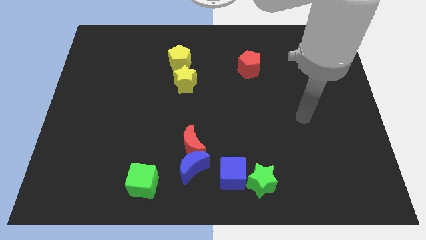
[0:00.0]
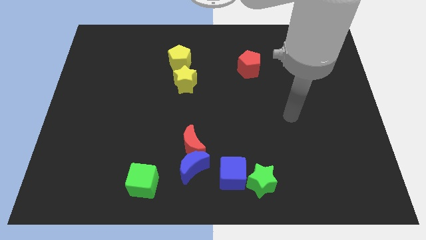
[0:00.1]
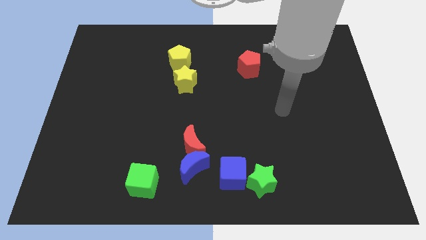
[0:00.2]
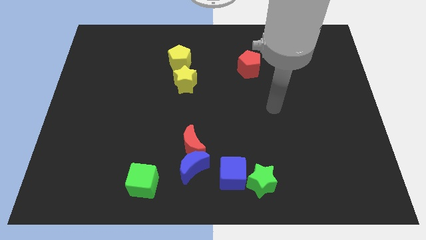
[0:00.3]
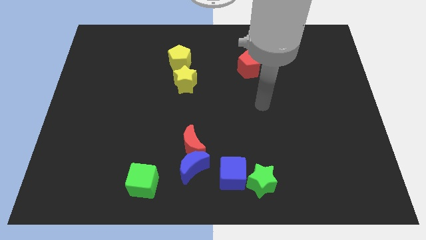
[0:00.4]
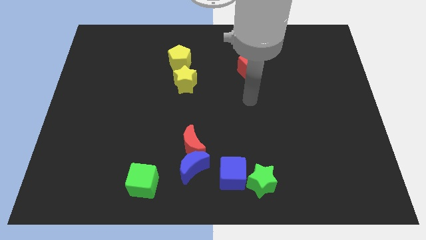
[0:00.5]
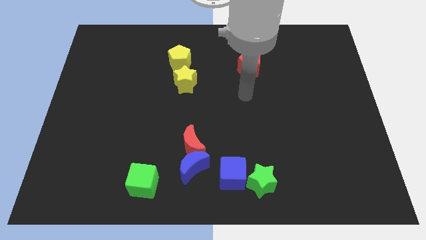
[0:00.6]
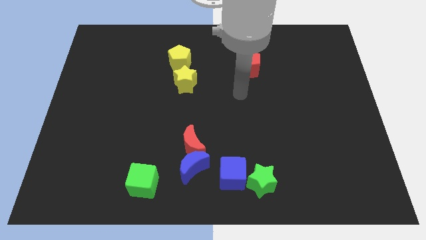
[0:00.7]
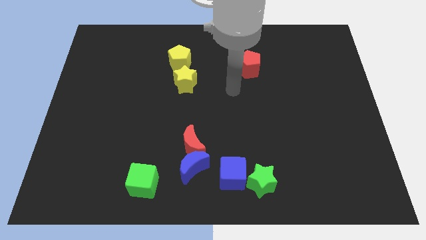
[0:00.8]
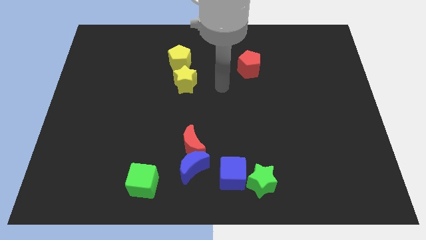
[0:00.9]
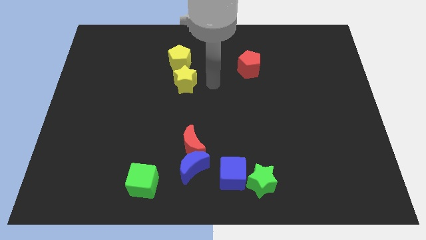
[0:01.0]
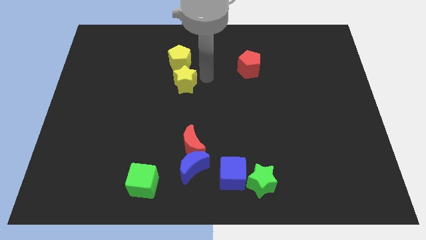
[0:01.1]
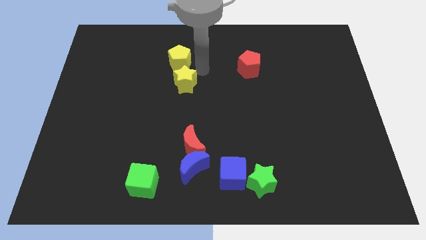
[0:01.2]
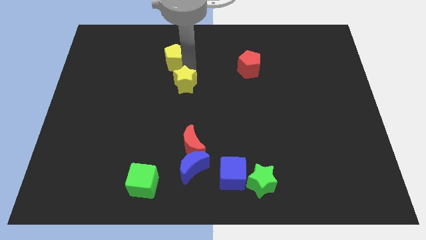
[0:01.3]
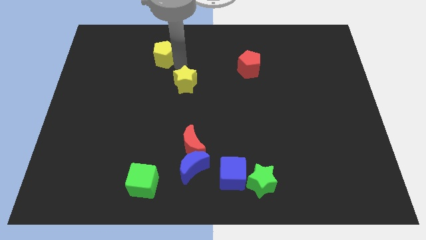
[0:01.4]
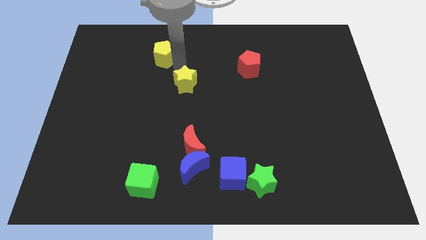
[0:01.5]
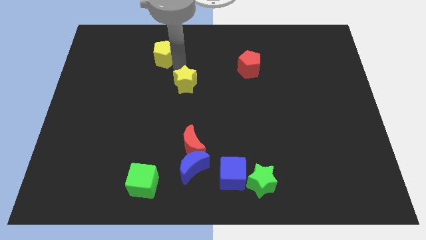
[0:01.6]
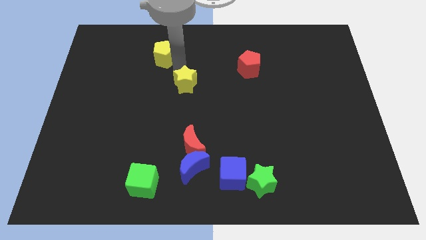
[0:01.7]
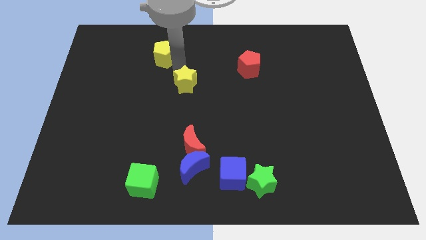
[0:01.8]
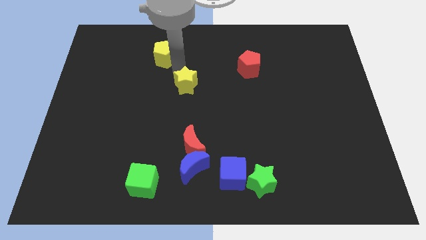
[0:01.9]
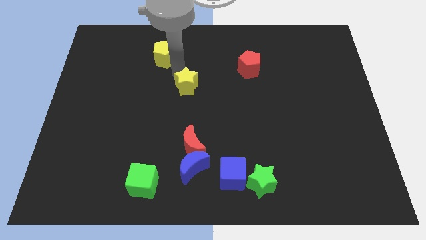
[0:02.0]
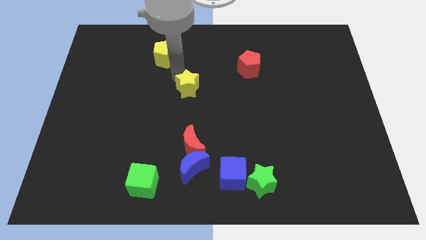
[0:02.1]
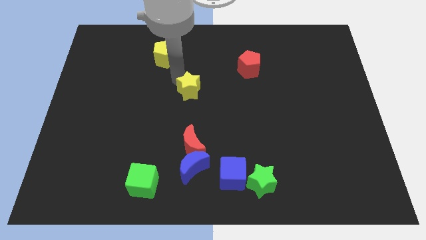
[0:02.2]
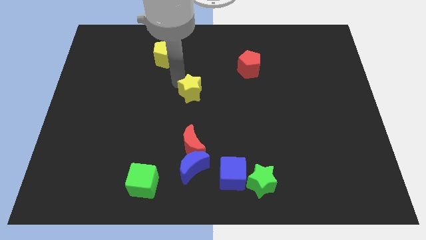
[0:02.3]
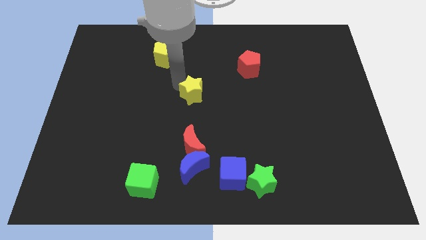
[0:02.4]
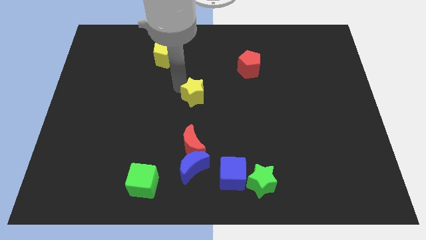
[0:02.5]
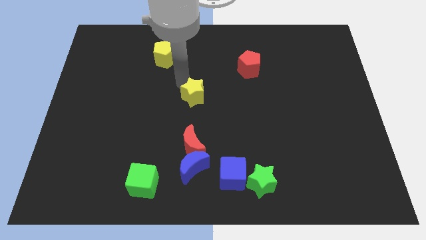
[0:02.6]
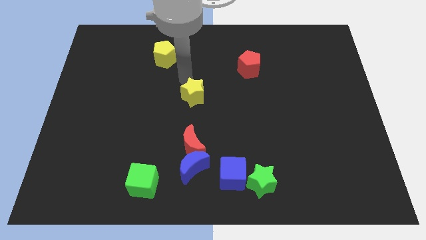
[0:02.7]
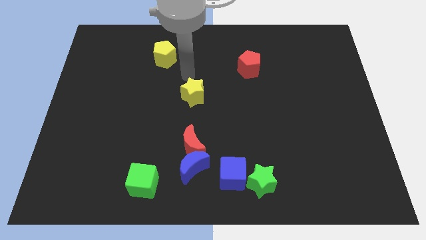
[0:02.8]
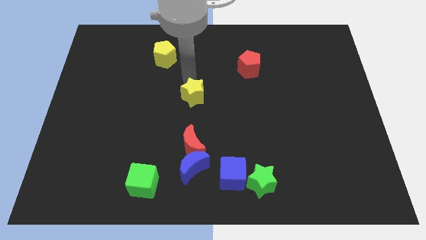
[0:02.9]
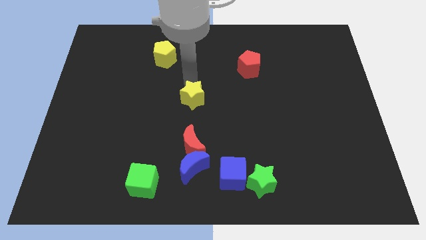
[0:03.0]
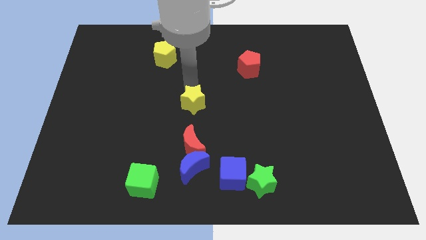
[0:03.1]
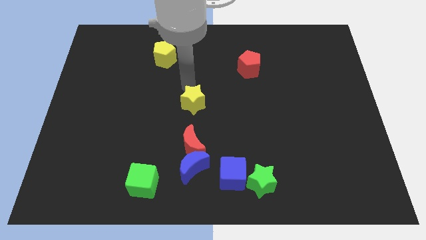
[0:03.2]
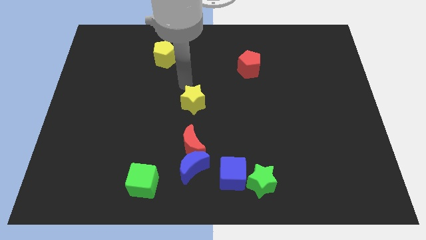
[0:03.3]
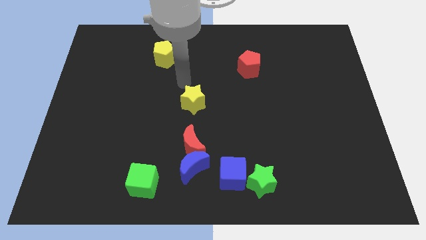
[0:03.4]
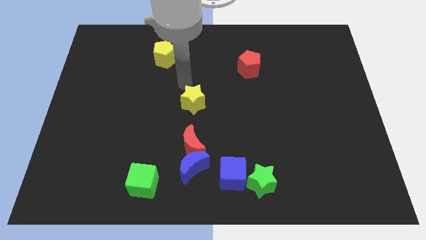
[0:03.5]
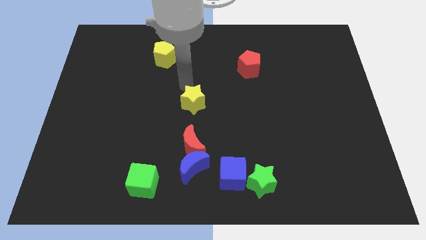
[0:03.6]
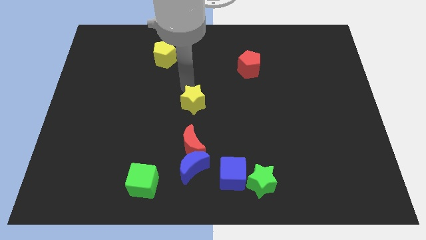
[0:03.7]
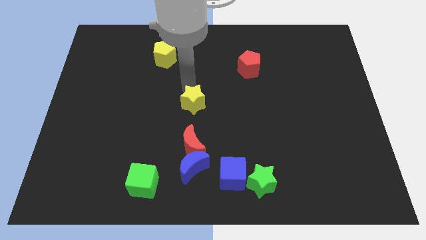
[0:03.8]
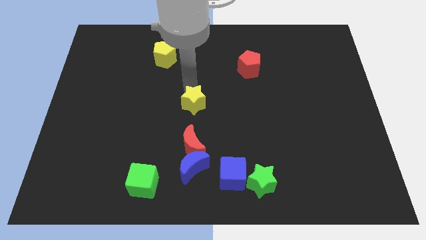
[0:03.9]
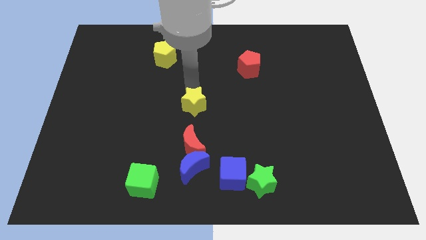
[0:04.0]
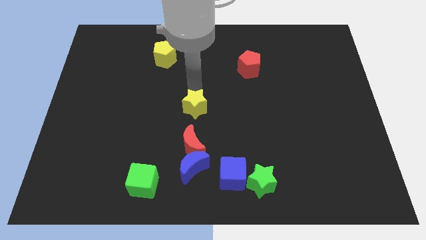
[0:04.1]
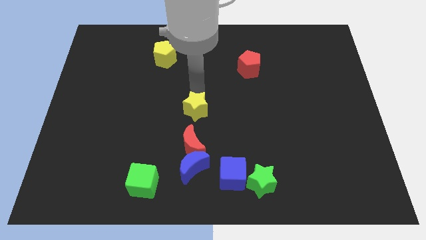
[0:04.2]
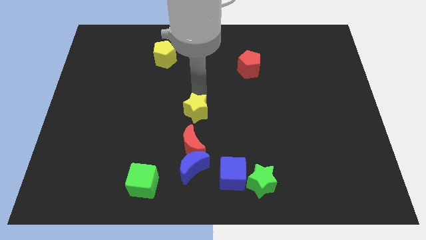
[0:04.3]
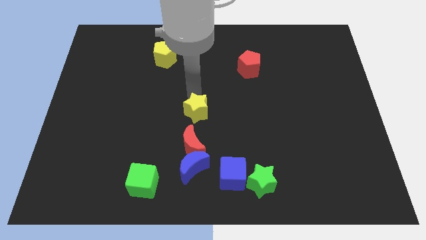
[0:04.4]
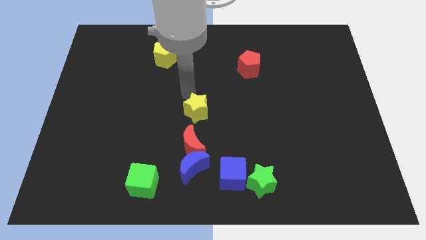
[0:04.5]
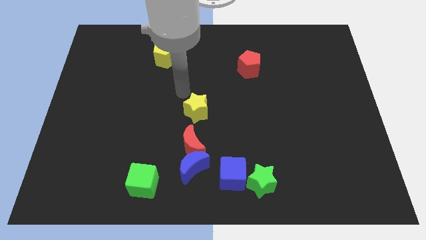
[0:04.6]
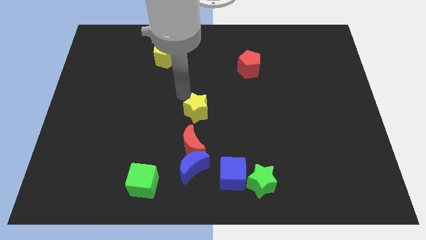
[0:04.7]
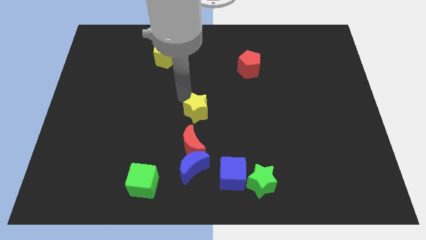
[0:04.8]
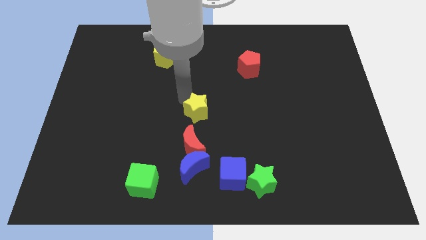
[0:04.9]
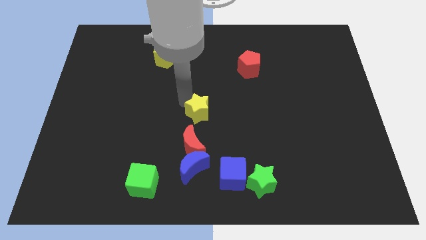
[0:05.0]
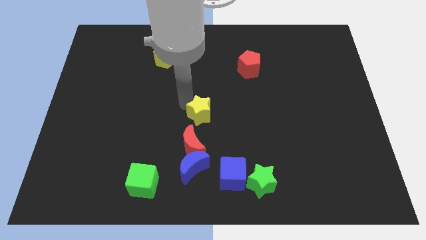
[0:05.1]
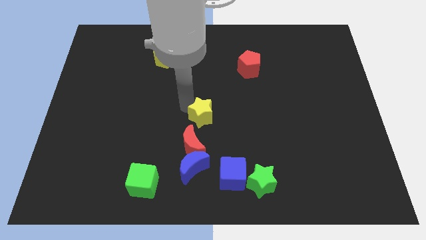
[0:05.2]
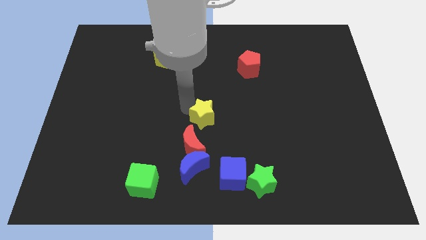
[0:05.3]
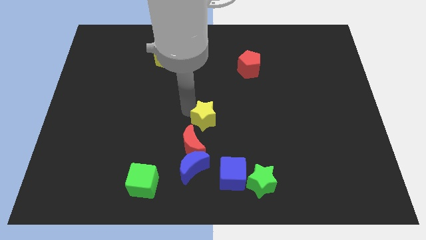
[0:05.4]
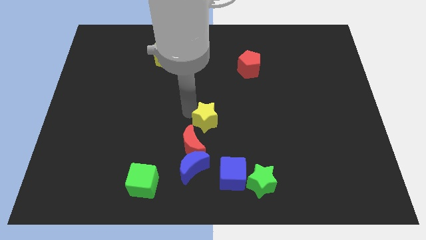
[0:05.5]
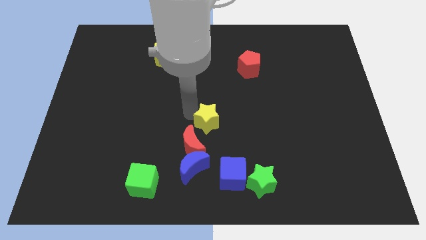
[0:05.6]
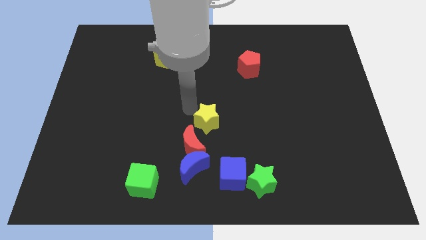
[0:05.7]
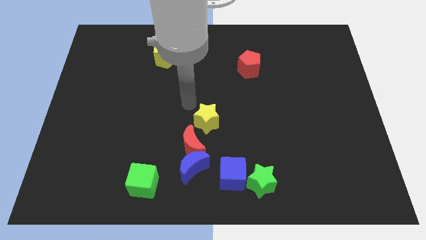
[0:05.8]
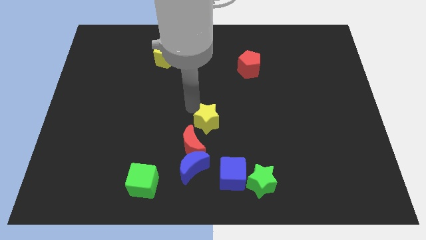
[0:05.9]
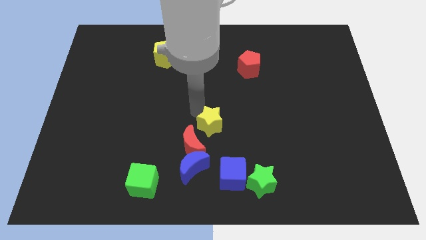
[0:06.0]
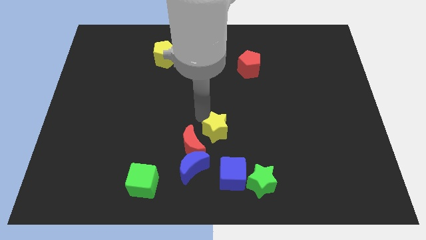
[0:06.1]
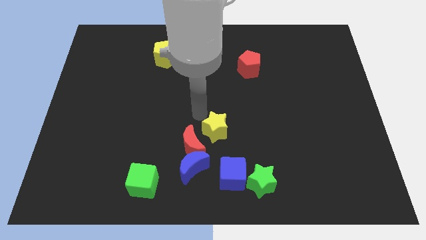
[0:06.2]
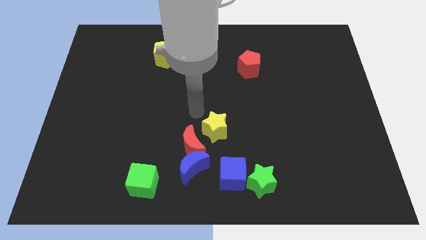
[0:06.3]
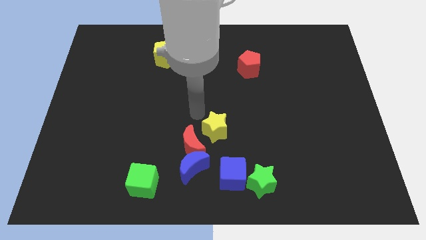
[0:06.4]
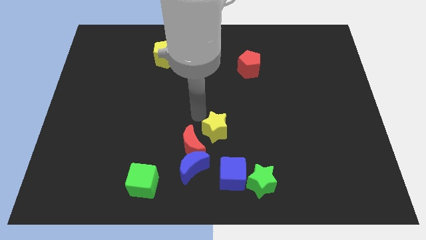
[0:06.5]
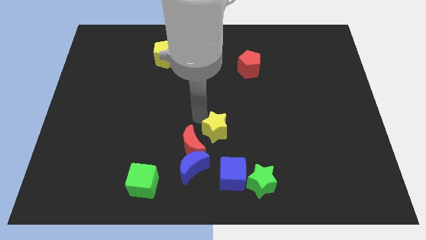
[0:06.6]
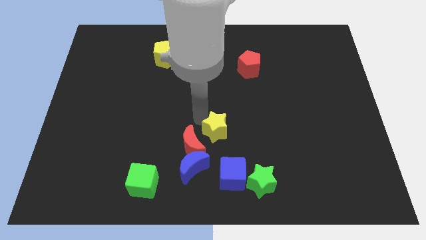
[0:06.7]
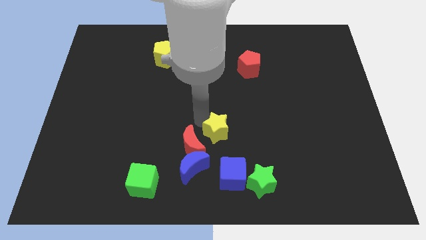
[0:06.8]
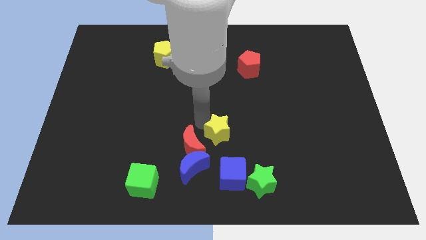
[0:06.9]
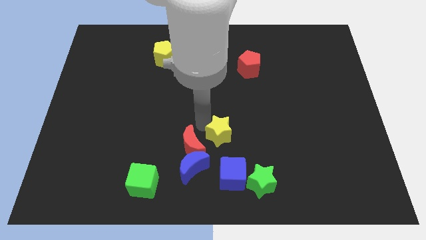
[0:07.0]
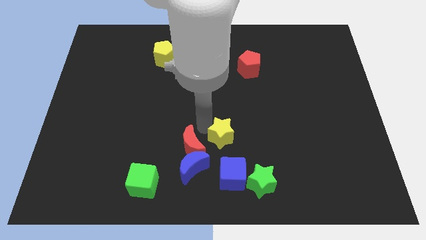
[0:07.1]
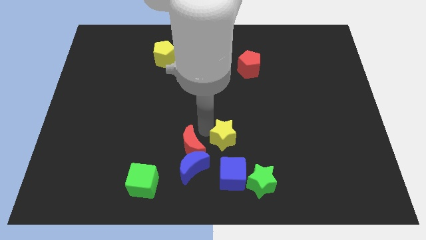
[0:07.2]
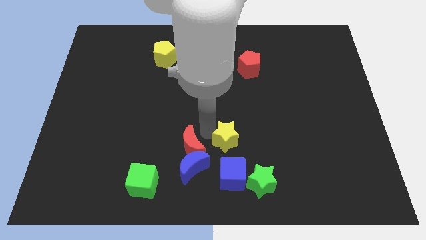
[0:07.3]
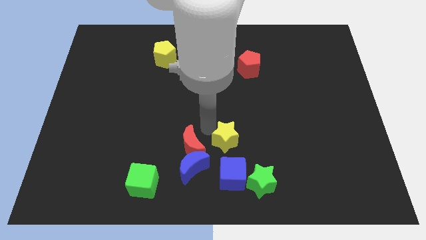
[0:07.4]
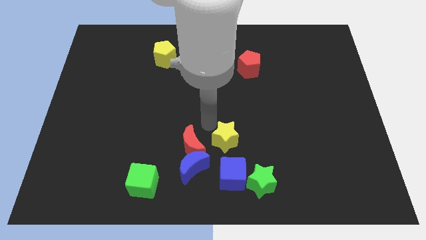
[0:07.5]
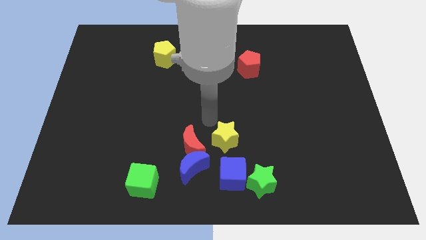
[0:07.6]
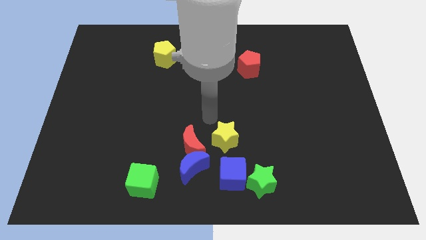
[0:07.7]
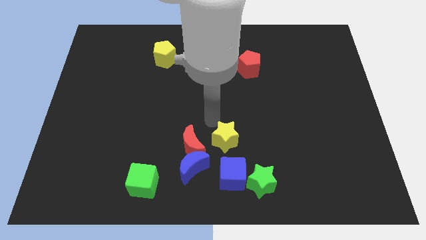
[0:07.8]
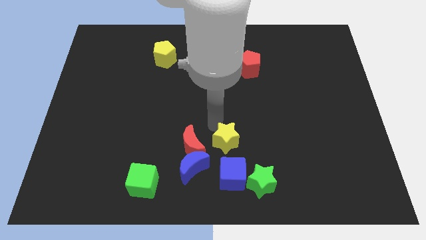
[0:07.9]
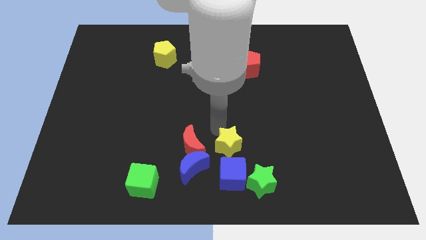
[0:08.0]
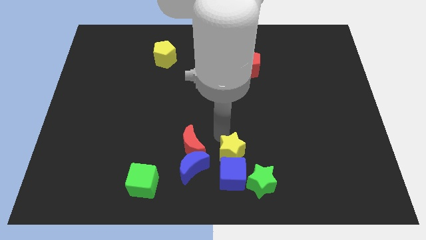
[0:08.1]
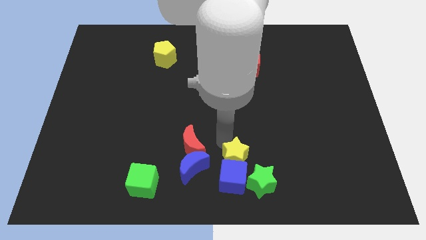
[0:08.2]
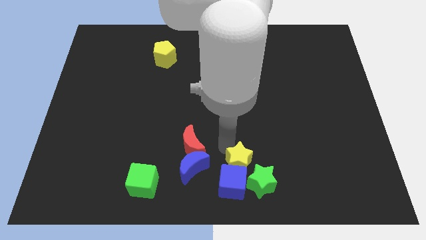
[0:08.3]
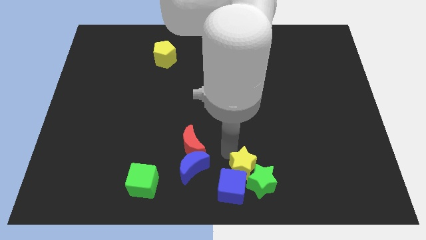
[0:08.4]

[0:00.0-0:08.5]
move the yellow star next to the green star
